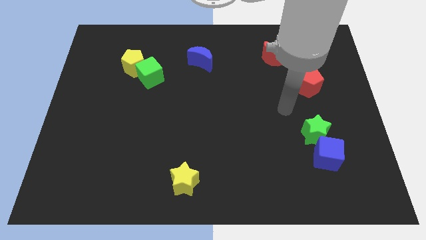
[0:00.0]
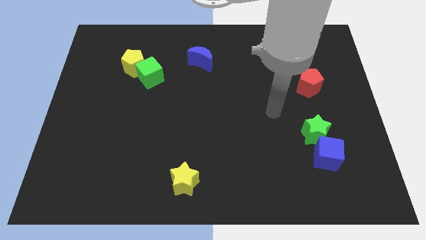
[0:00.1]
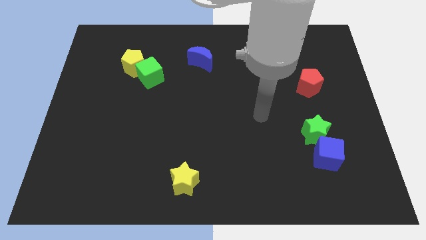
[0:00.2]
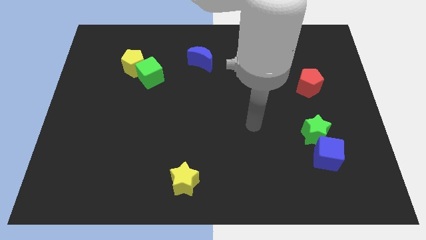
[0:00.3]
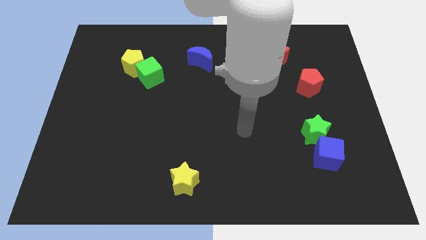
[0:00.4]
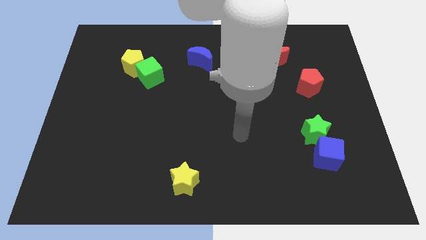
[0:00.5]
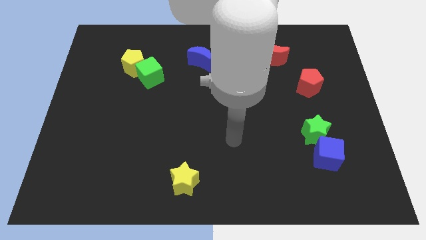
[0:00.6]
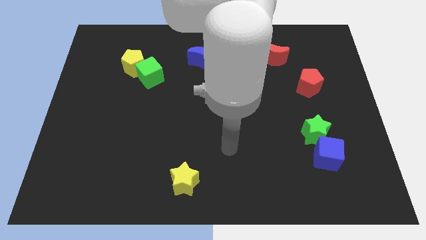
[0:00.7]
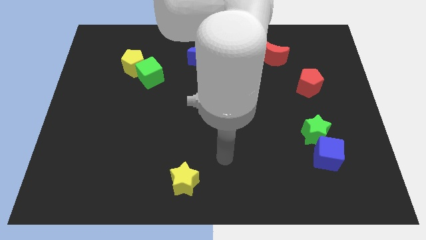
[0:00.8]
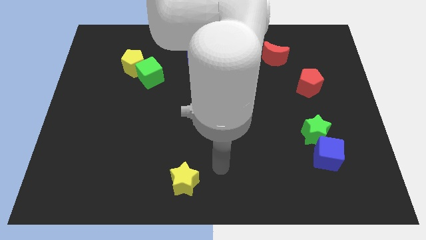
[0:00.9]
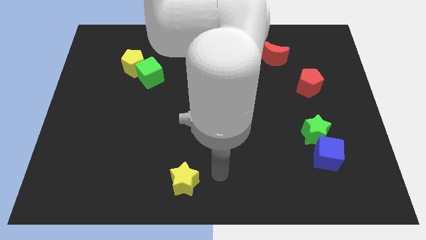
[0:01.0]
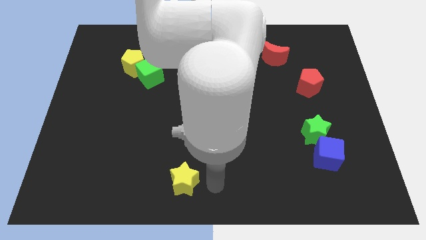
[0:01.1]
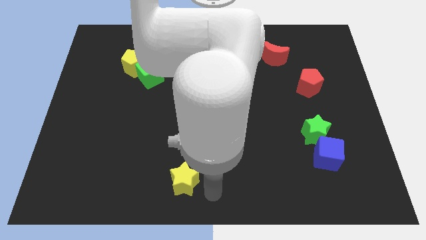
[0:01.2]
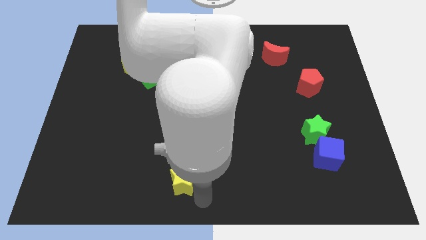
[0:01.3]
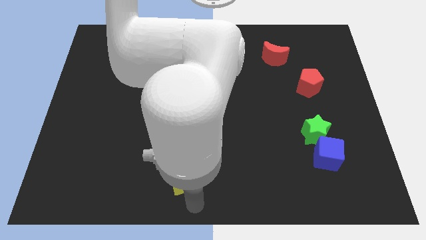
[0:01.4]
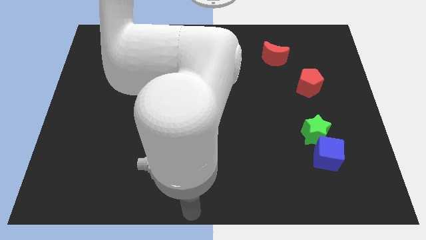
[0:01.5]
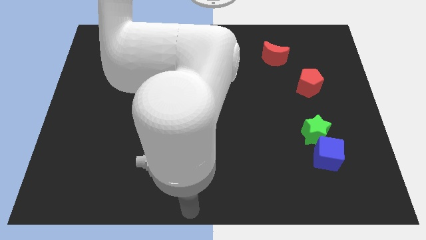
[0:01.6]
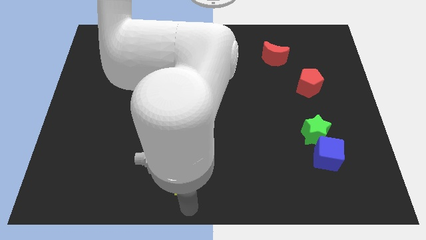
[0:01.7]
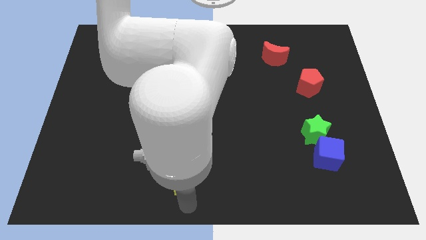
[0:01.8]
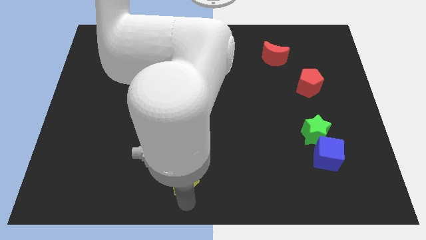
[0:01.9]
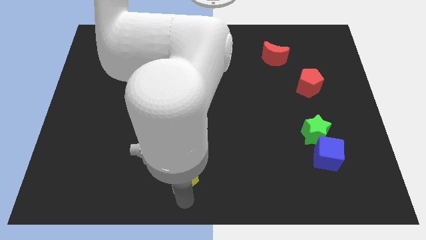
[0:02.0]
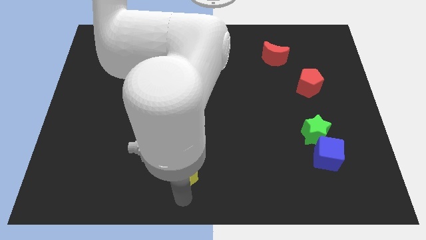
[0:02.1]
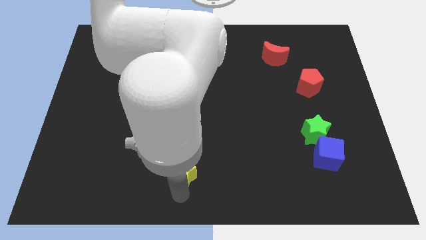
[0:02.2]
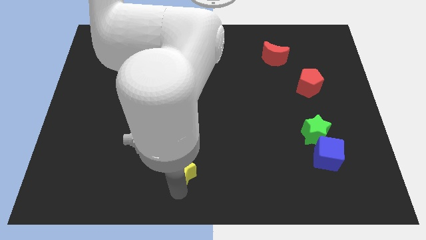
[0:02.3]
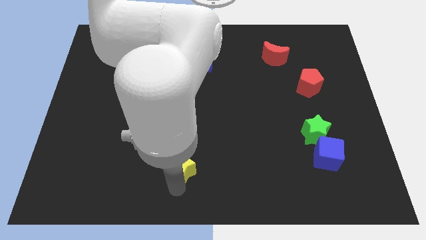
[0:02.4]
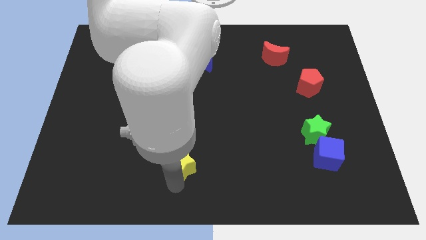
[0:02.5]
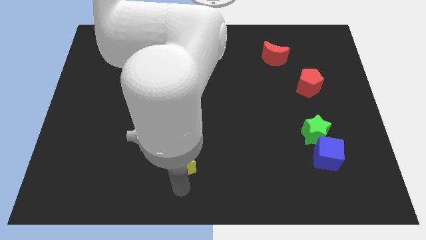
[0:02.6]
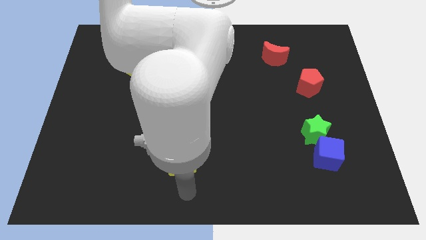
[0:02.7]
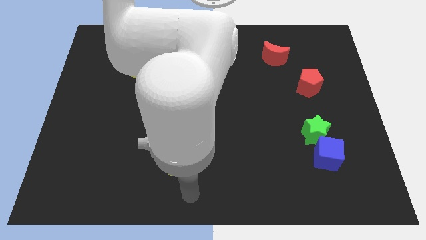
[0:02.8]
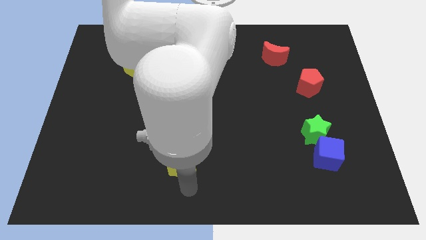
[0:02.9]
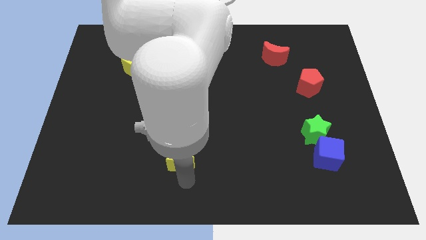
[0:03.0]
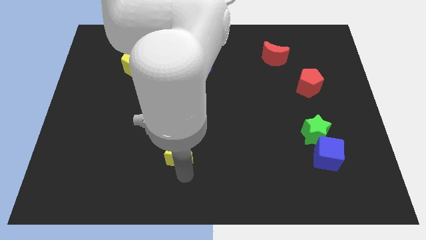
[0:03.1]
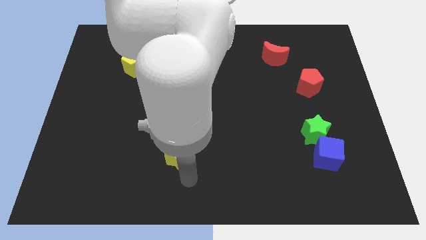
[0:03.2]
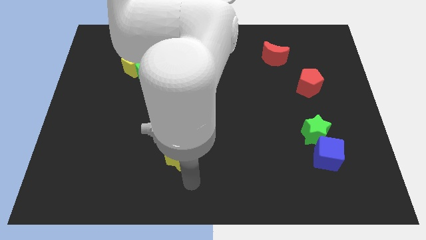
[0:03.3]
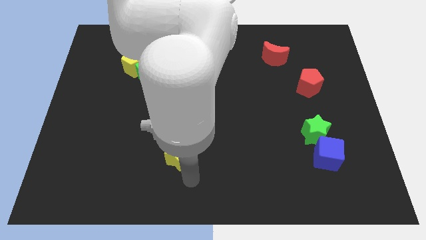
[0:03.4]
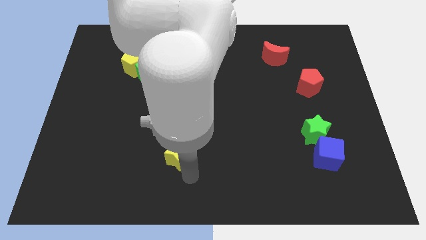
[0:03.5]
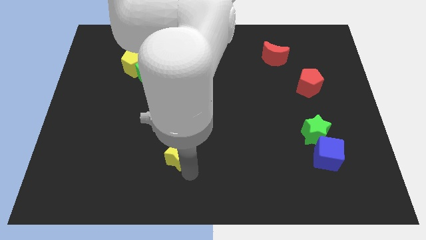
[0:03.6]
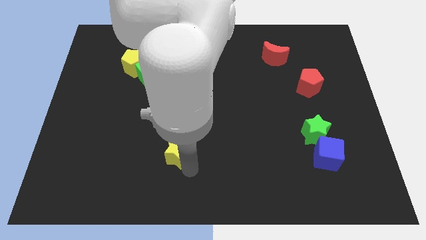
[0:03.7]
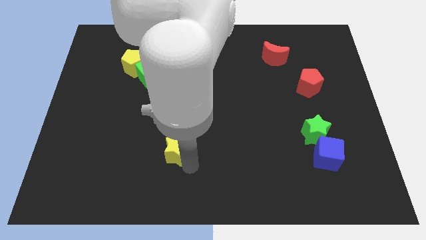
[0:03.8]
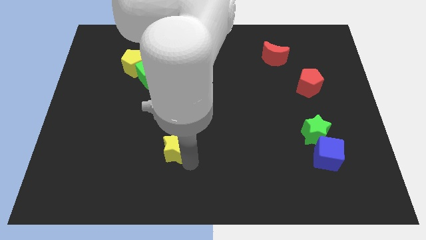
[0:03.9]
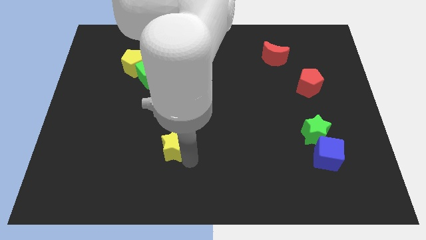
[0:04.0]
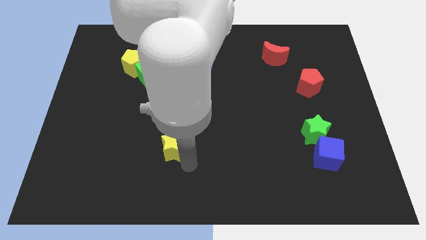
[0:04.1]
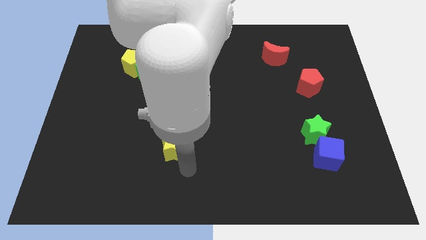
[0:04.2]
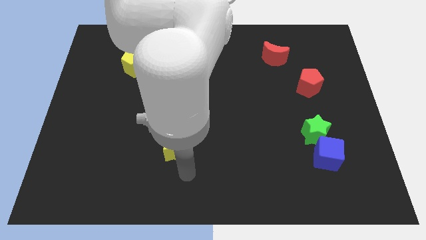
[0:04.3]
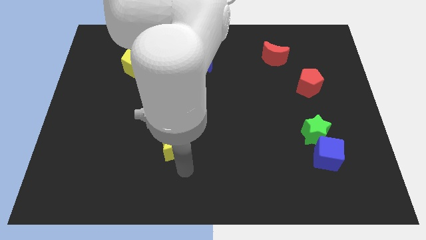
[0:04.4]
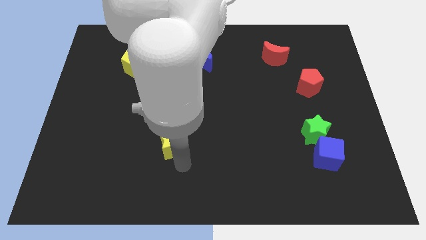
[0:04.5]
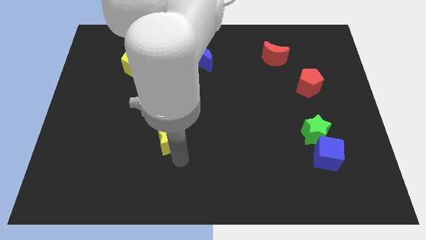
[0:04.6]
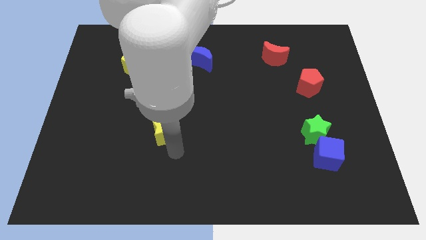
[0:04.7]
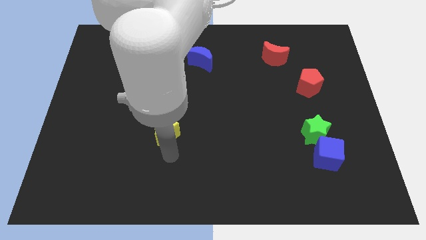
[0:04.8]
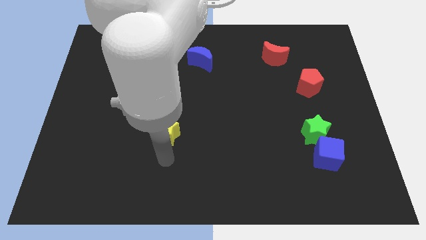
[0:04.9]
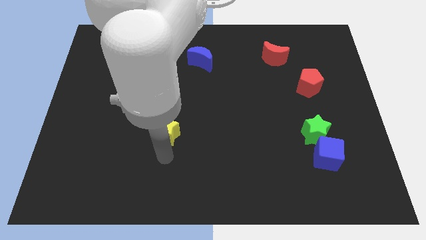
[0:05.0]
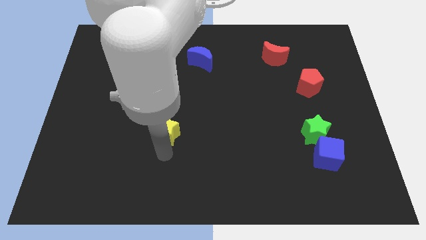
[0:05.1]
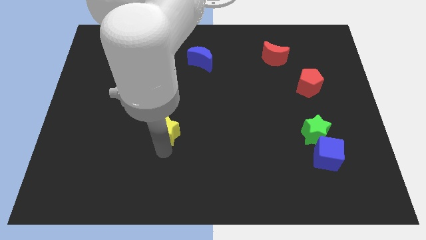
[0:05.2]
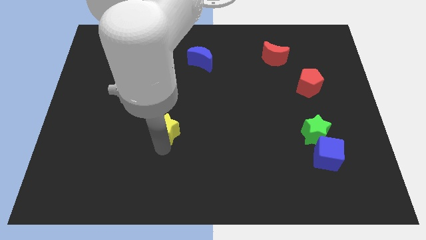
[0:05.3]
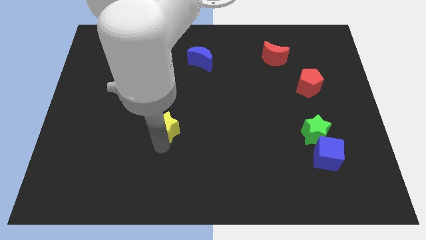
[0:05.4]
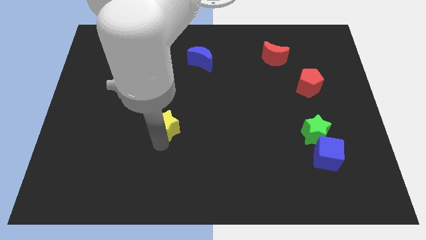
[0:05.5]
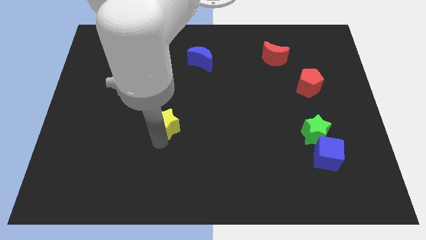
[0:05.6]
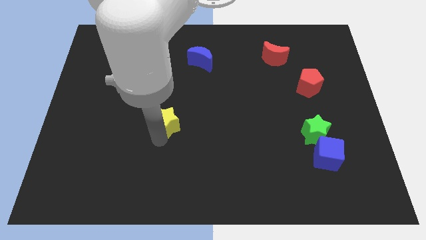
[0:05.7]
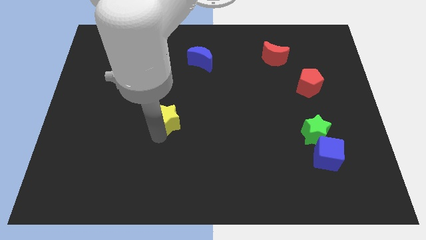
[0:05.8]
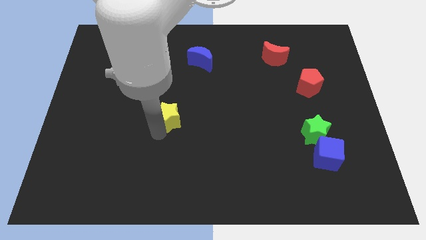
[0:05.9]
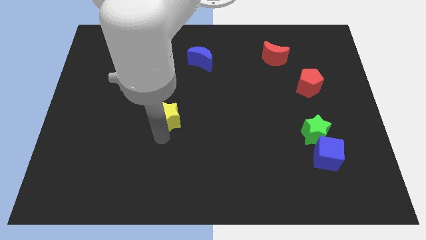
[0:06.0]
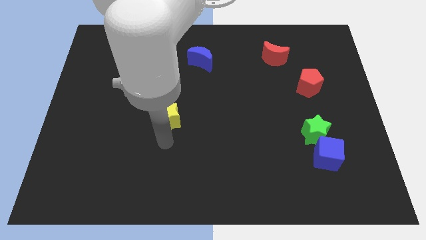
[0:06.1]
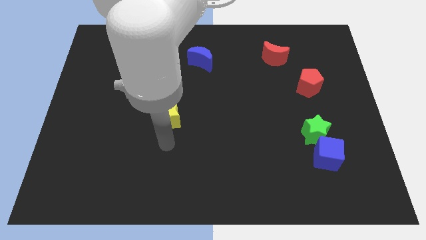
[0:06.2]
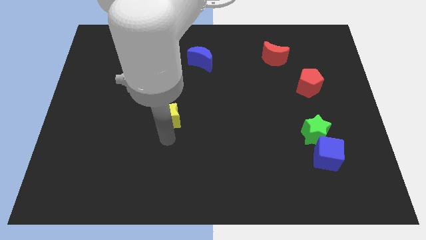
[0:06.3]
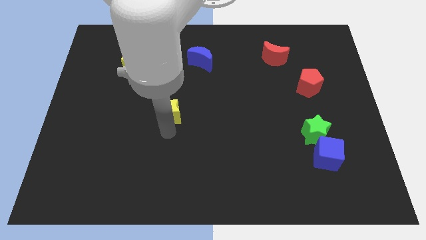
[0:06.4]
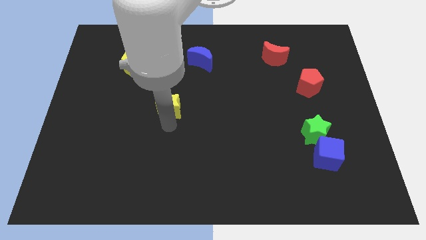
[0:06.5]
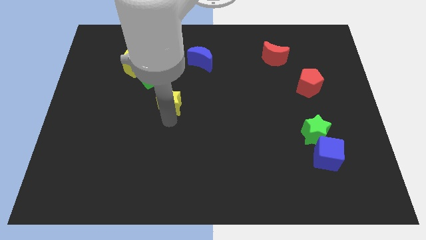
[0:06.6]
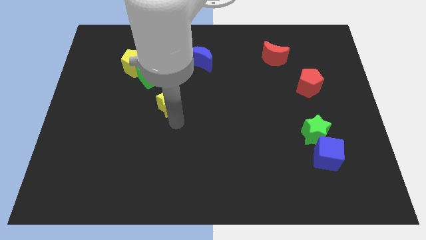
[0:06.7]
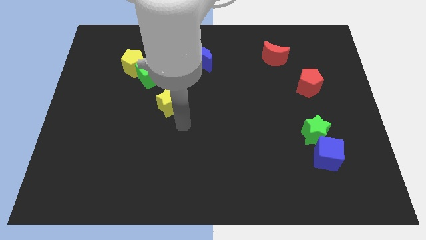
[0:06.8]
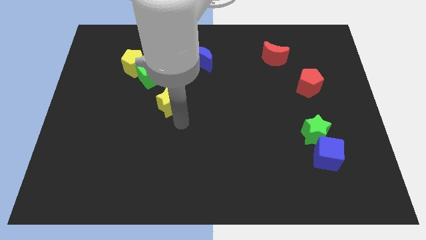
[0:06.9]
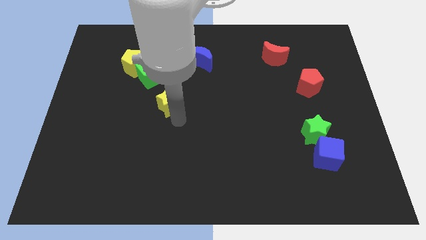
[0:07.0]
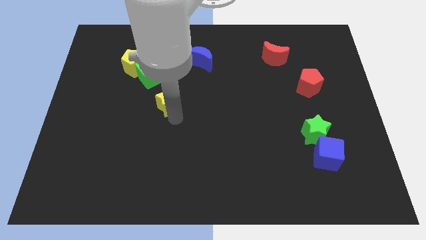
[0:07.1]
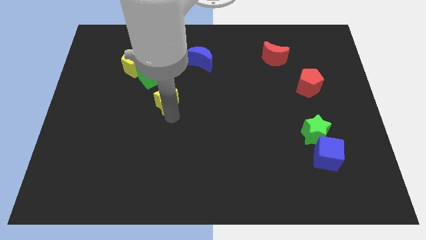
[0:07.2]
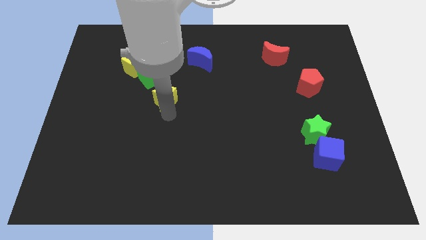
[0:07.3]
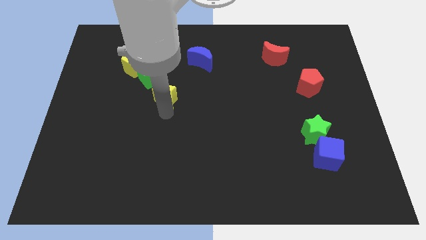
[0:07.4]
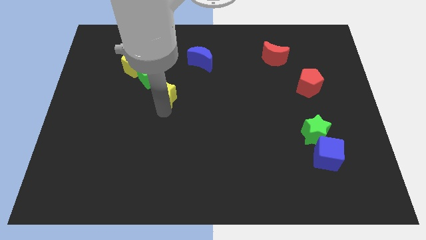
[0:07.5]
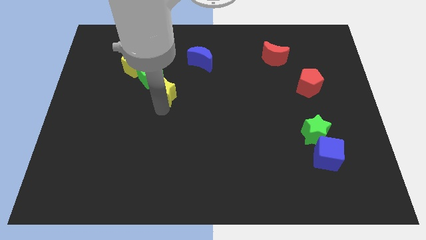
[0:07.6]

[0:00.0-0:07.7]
push the yellow star diagonally down and to the right of the yellow pentagon
